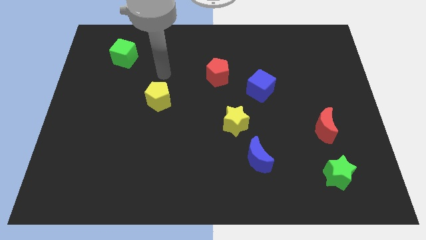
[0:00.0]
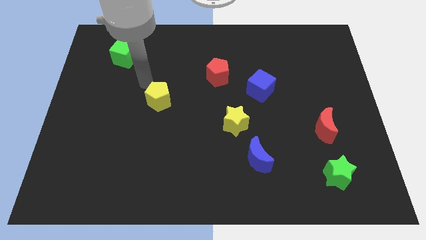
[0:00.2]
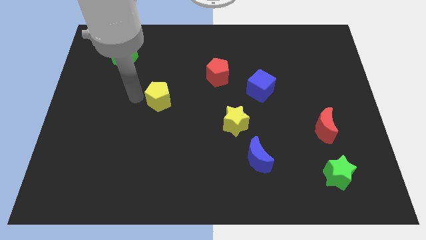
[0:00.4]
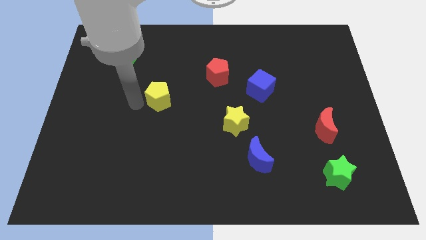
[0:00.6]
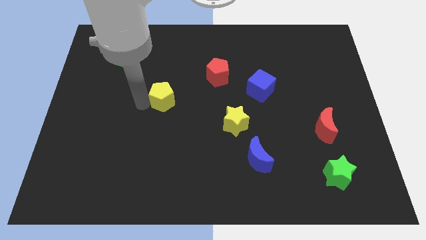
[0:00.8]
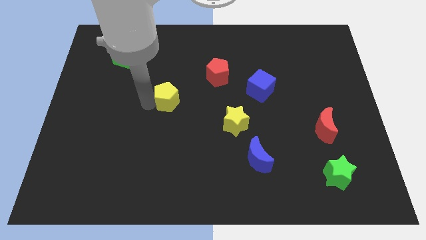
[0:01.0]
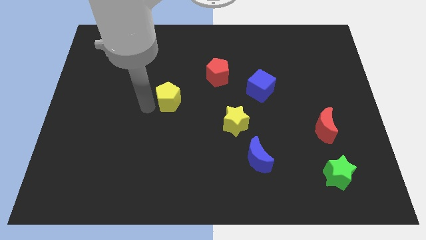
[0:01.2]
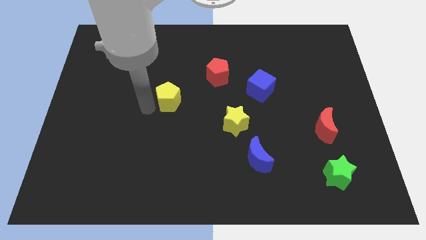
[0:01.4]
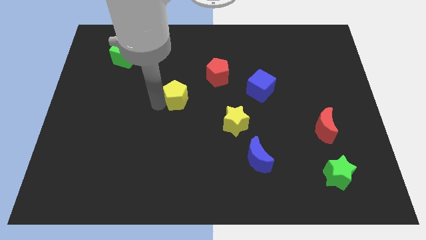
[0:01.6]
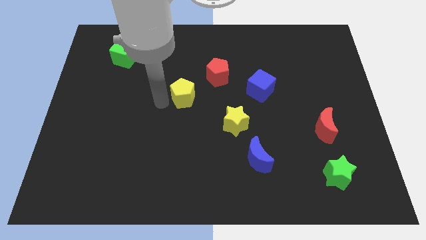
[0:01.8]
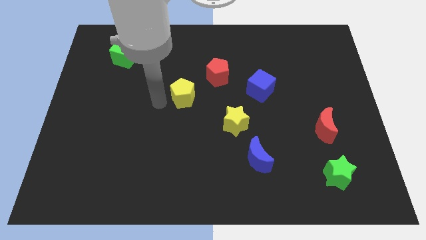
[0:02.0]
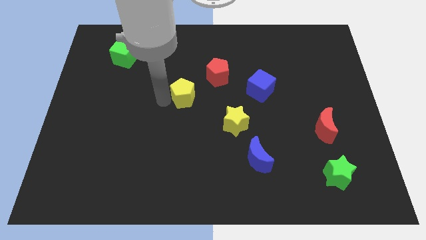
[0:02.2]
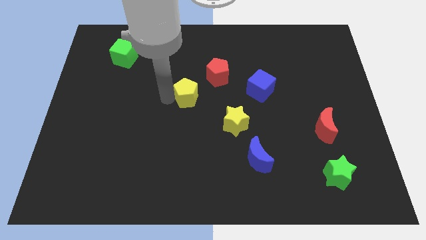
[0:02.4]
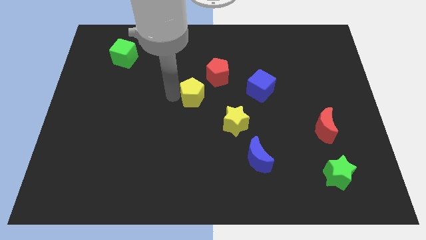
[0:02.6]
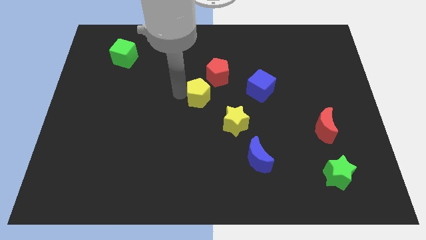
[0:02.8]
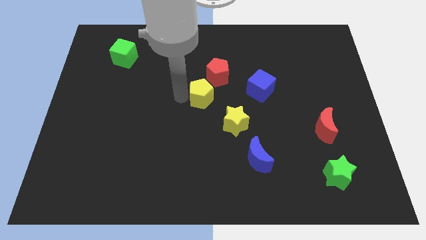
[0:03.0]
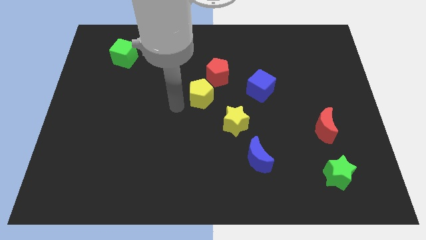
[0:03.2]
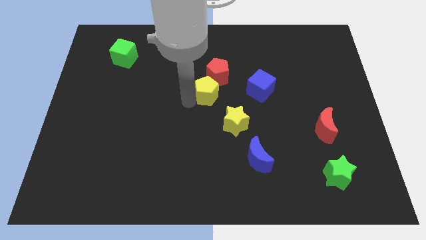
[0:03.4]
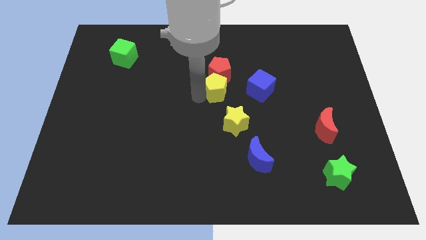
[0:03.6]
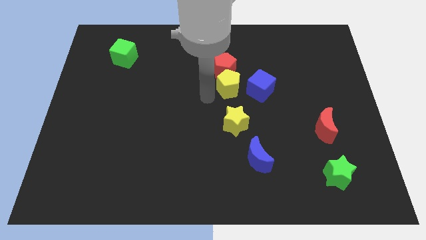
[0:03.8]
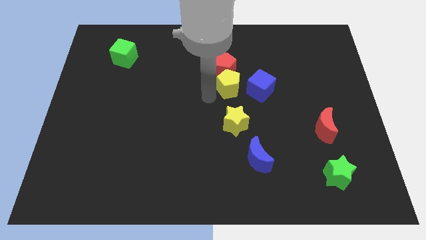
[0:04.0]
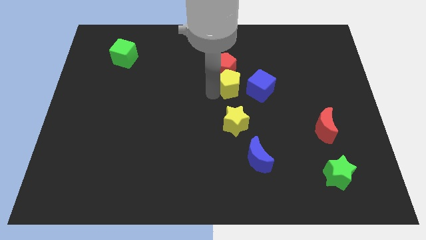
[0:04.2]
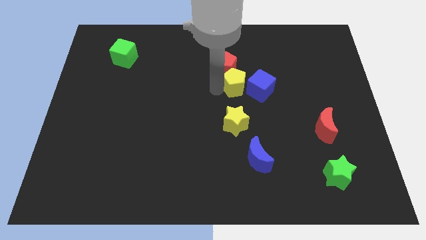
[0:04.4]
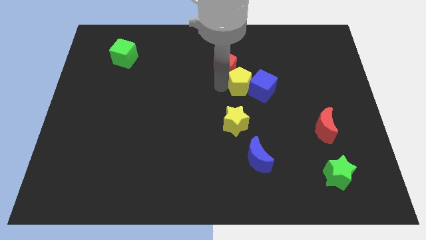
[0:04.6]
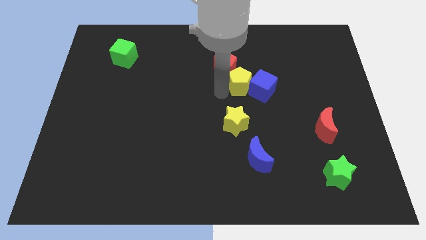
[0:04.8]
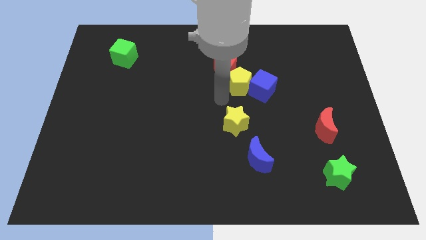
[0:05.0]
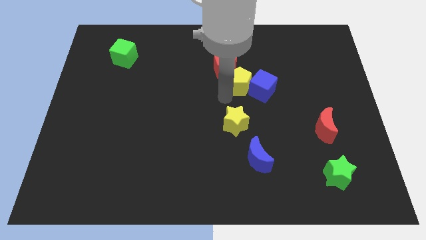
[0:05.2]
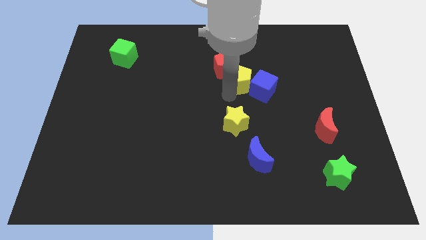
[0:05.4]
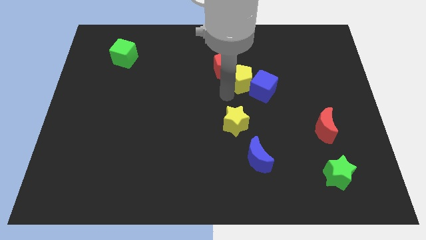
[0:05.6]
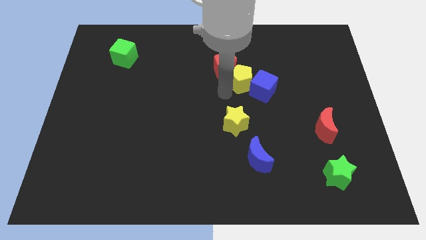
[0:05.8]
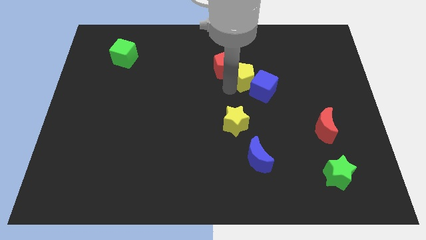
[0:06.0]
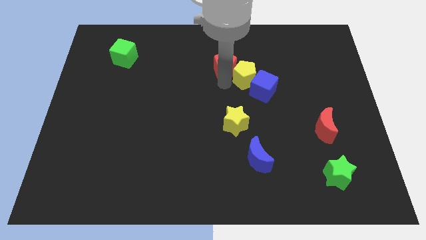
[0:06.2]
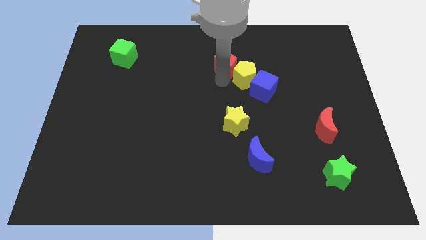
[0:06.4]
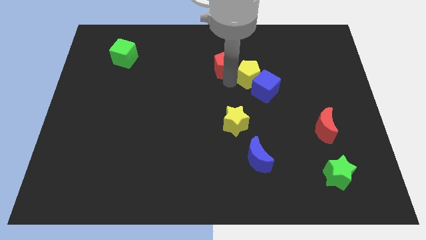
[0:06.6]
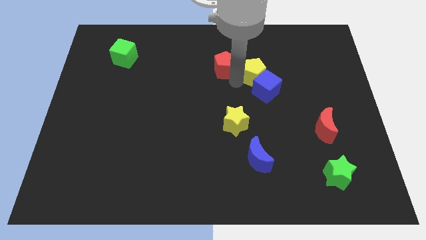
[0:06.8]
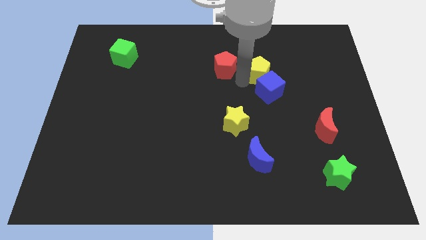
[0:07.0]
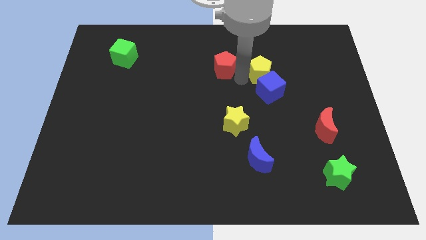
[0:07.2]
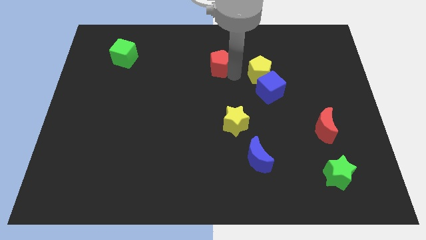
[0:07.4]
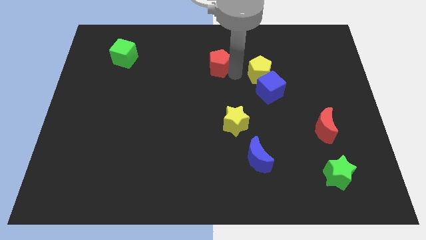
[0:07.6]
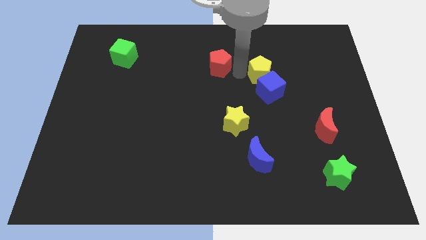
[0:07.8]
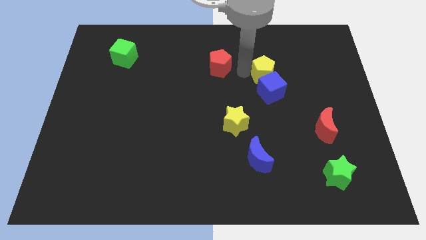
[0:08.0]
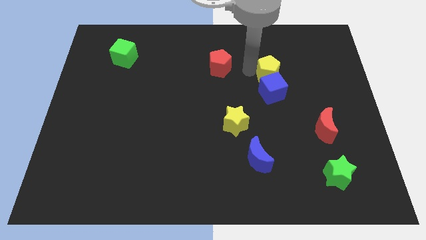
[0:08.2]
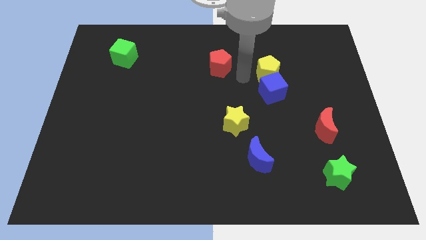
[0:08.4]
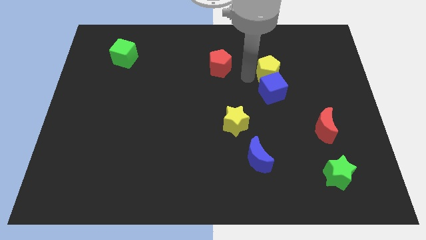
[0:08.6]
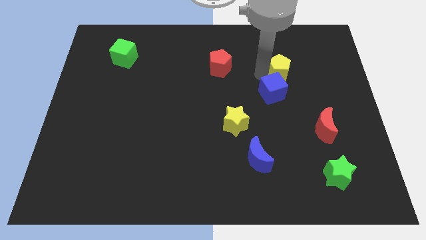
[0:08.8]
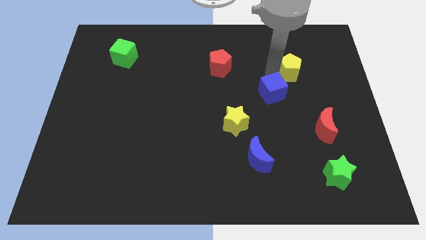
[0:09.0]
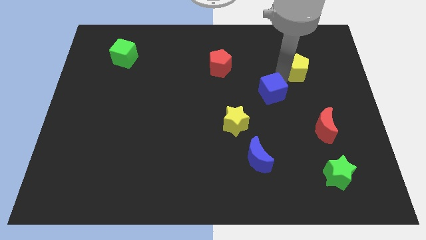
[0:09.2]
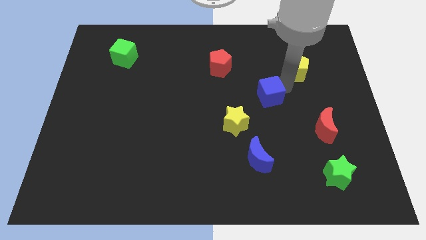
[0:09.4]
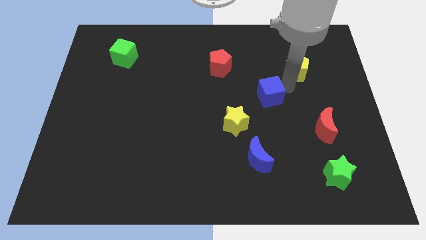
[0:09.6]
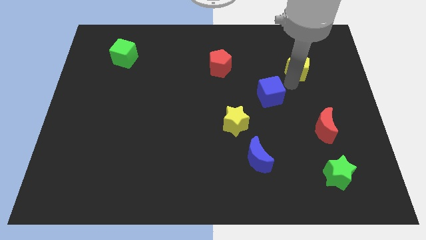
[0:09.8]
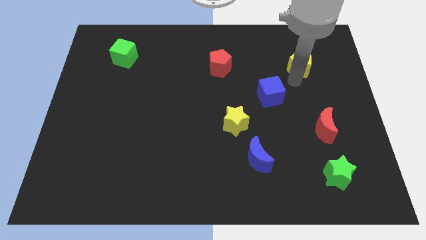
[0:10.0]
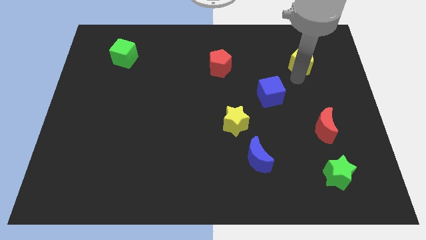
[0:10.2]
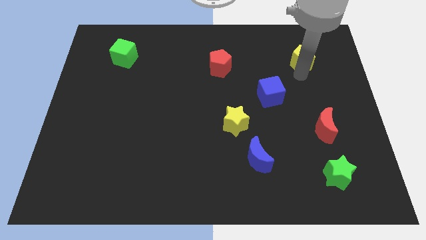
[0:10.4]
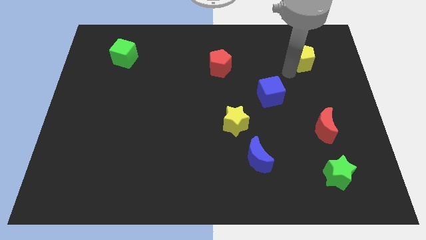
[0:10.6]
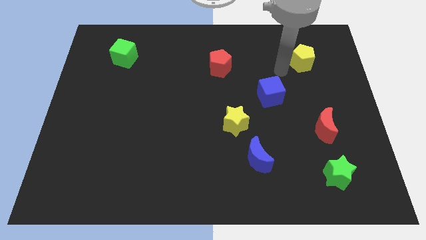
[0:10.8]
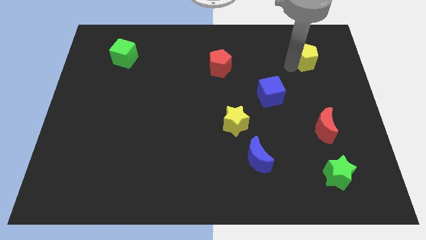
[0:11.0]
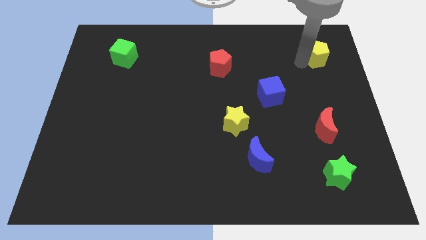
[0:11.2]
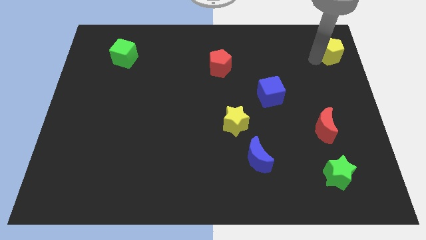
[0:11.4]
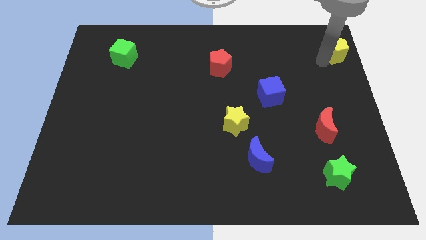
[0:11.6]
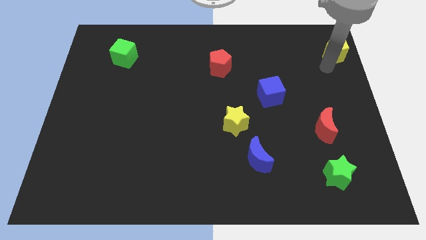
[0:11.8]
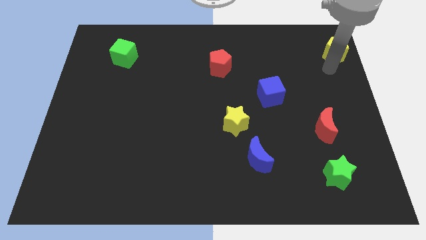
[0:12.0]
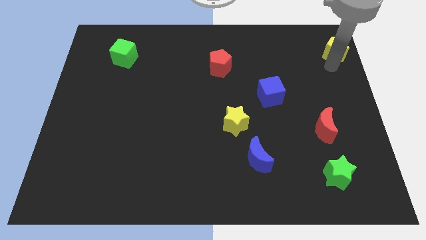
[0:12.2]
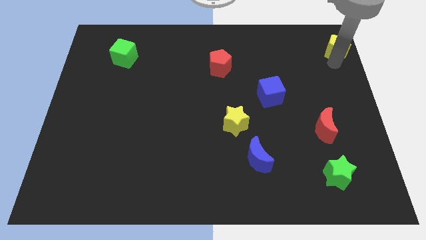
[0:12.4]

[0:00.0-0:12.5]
put the yellow pentagon to the top right corner

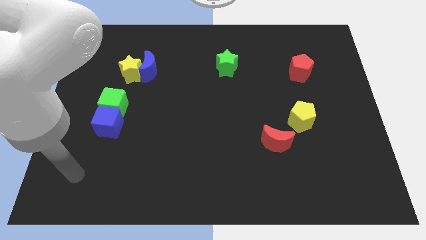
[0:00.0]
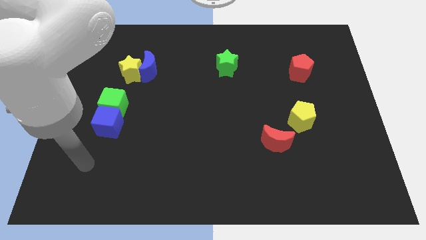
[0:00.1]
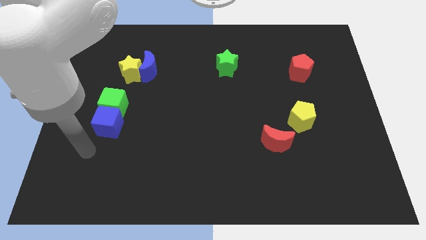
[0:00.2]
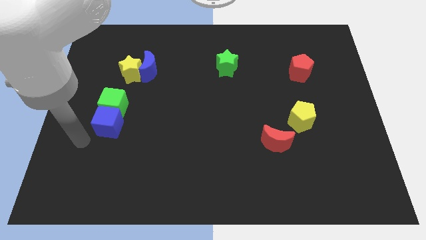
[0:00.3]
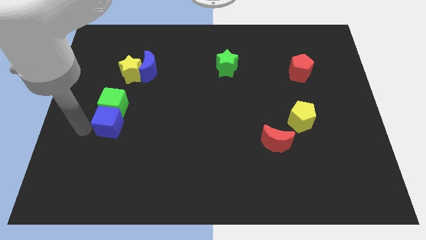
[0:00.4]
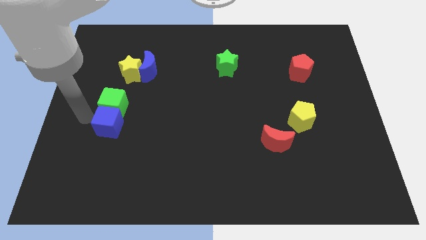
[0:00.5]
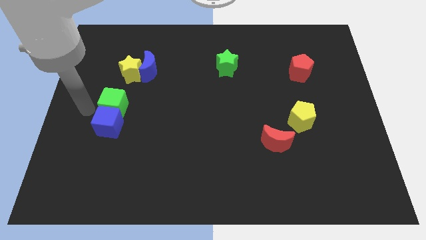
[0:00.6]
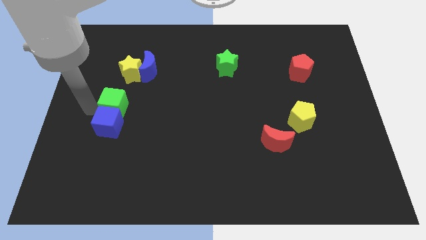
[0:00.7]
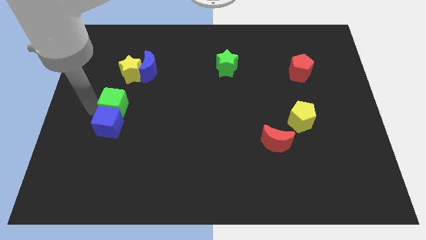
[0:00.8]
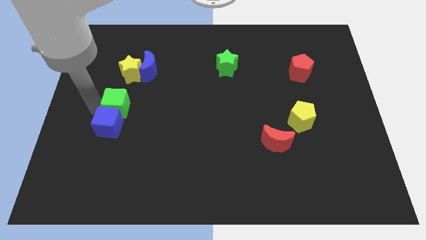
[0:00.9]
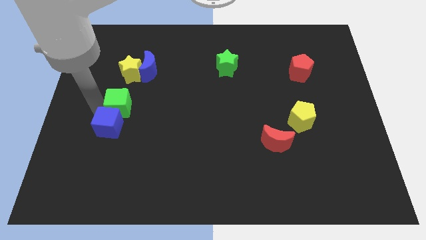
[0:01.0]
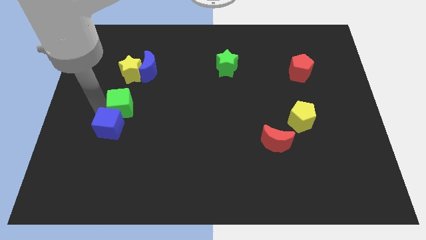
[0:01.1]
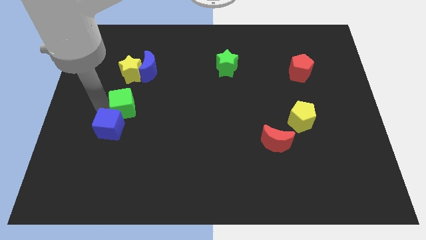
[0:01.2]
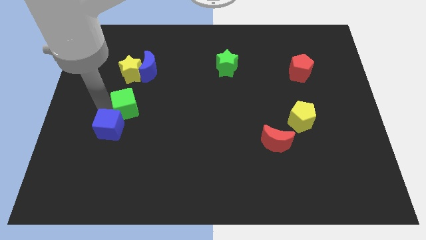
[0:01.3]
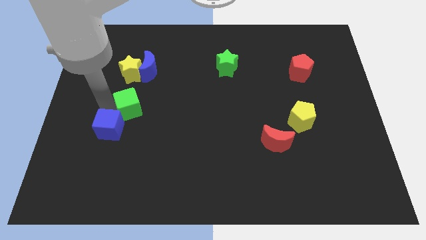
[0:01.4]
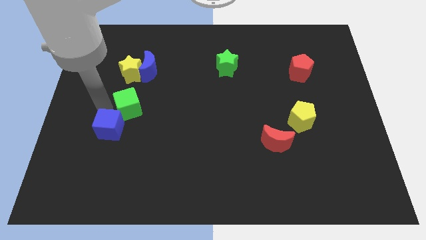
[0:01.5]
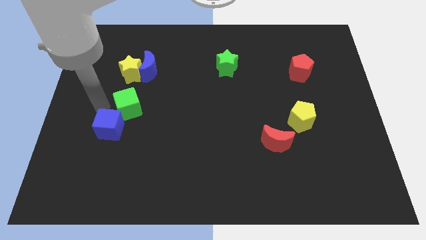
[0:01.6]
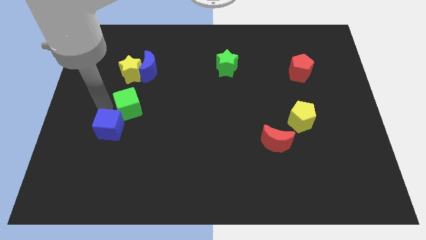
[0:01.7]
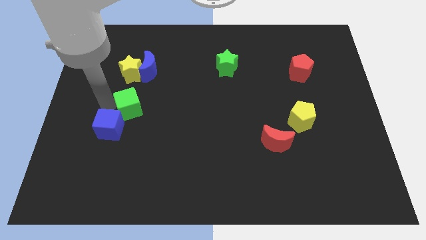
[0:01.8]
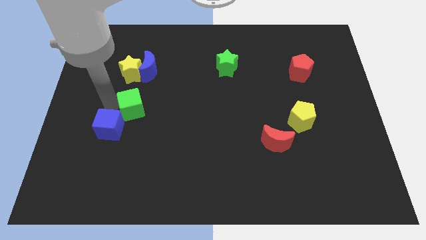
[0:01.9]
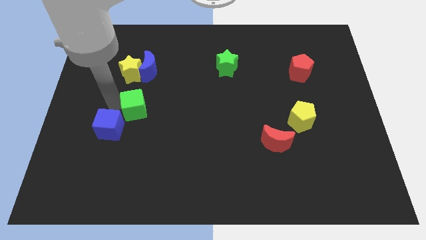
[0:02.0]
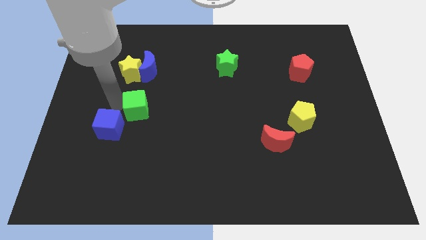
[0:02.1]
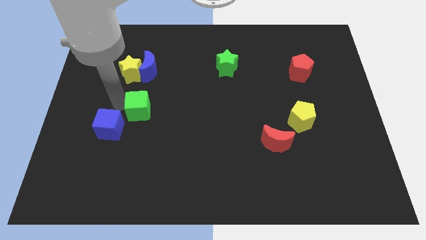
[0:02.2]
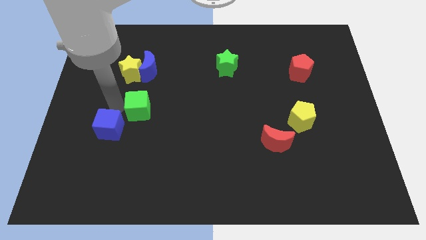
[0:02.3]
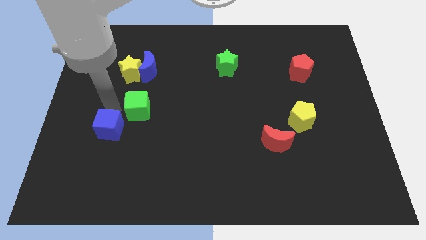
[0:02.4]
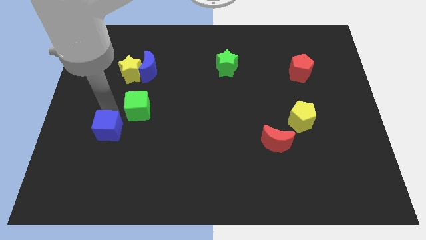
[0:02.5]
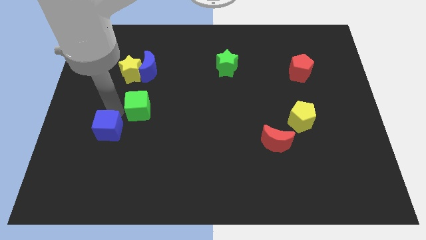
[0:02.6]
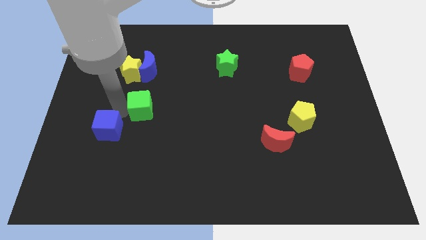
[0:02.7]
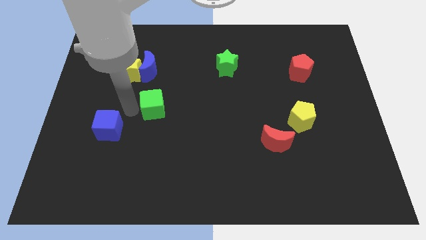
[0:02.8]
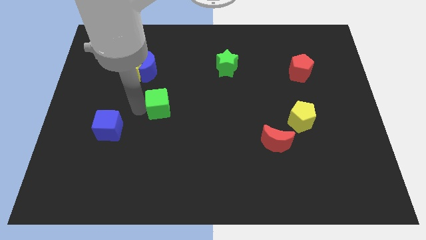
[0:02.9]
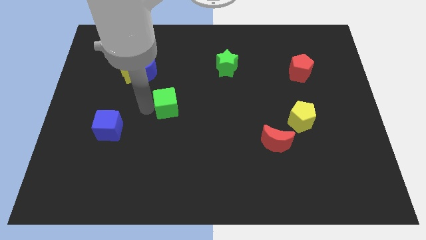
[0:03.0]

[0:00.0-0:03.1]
slide the green cube to the middle of the board
